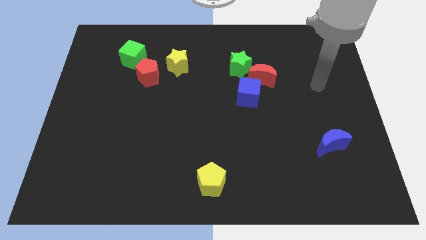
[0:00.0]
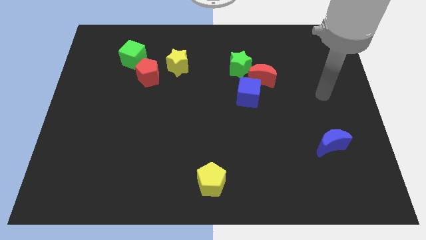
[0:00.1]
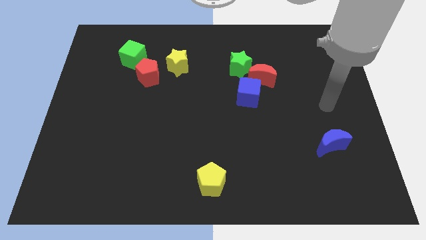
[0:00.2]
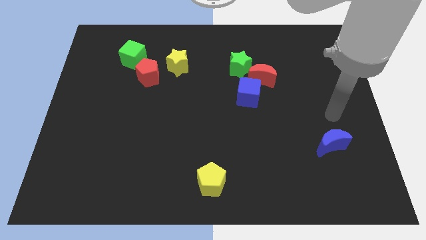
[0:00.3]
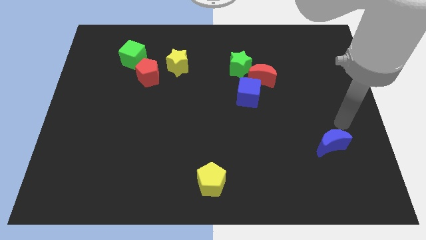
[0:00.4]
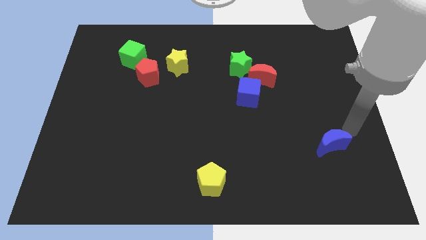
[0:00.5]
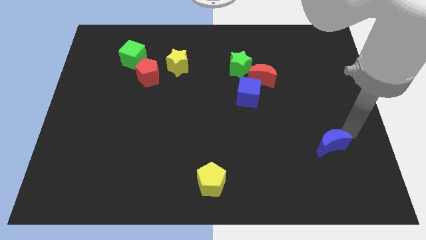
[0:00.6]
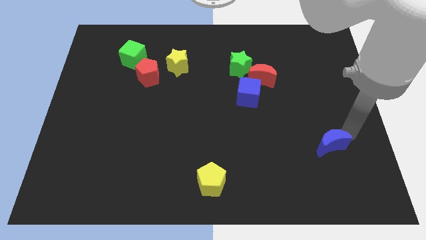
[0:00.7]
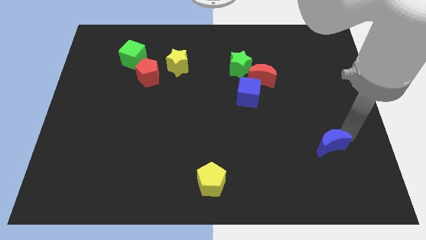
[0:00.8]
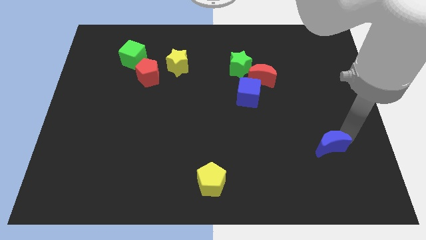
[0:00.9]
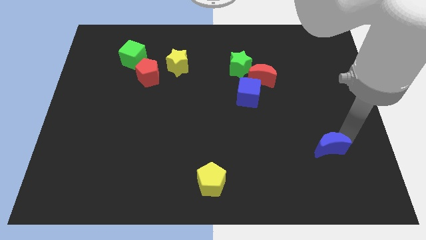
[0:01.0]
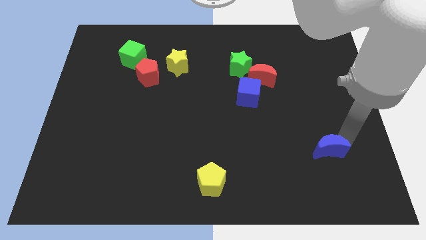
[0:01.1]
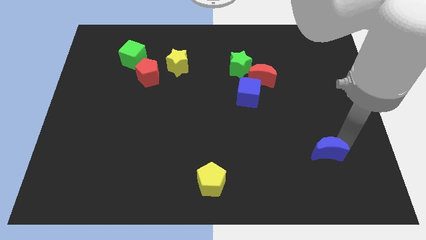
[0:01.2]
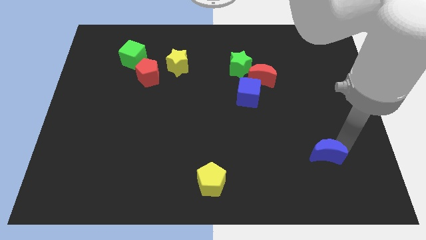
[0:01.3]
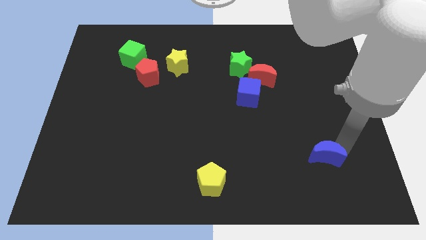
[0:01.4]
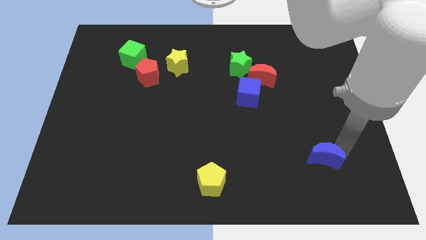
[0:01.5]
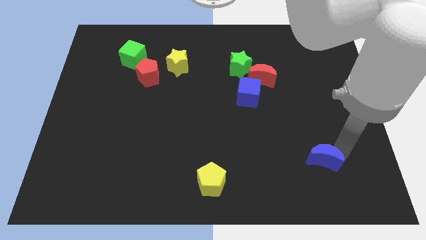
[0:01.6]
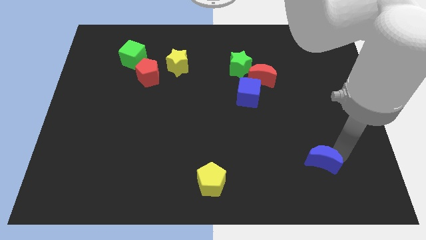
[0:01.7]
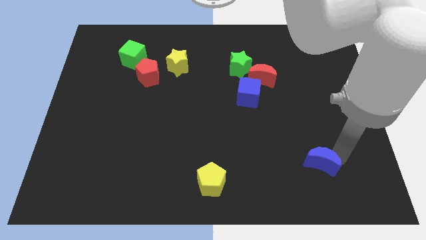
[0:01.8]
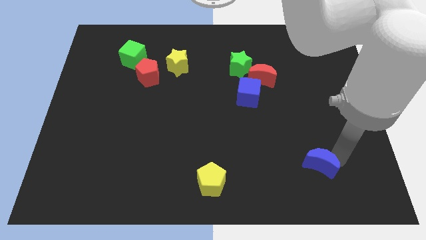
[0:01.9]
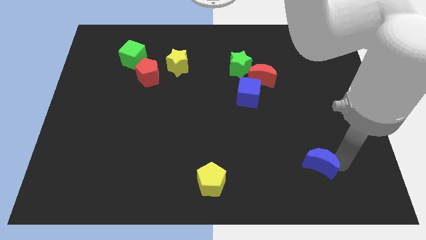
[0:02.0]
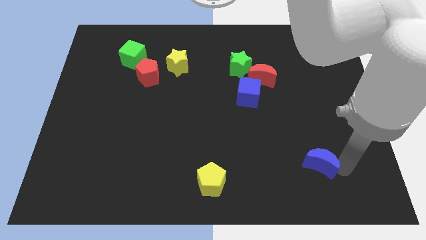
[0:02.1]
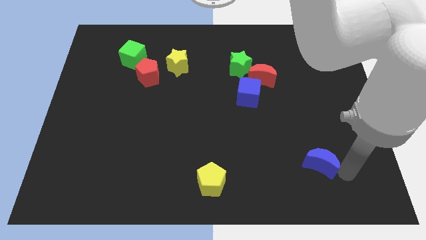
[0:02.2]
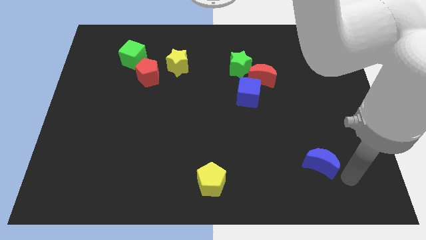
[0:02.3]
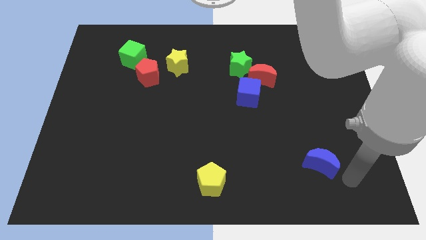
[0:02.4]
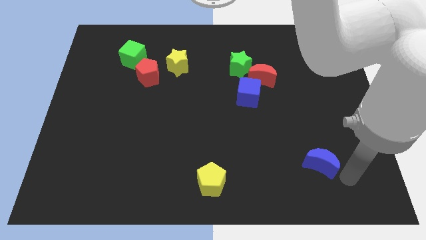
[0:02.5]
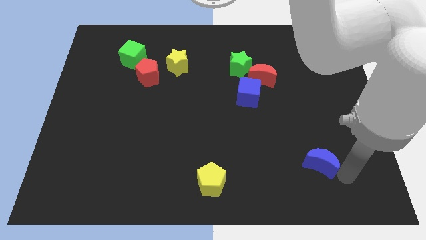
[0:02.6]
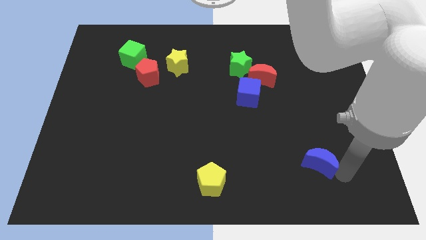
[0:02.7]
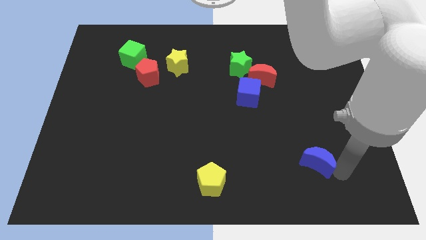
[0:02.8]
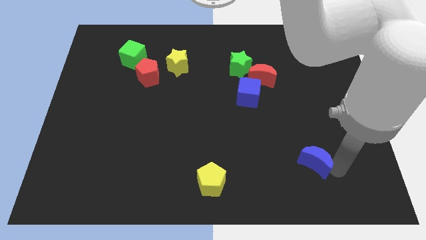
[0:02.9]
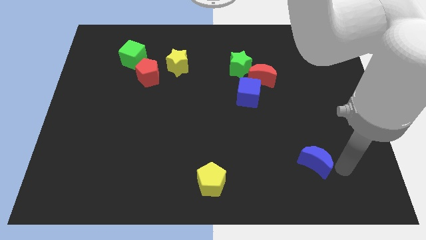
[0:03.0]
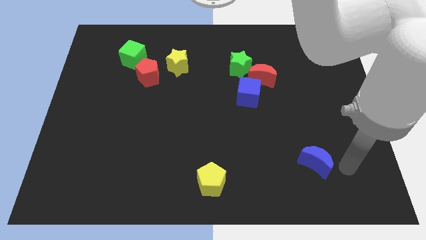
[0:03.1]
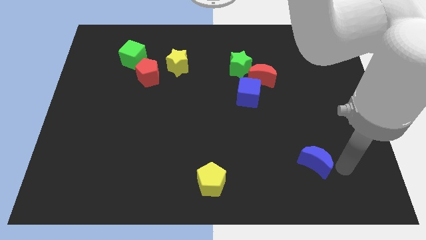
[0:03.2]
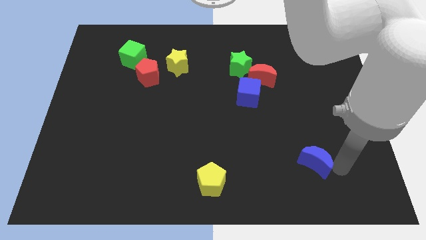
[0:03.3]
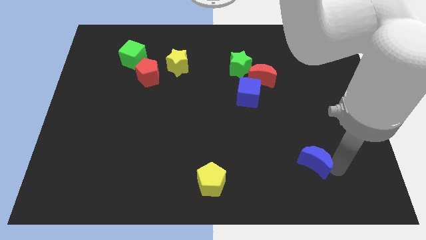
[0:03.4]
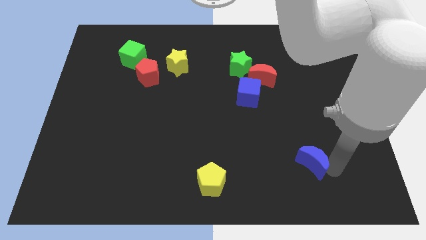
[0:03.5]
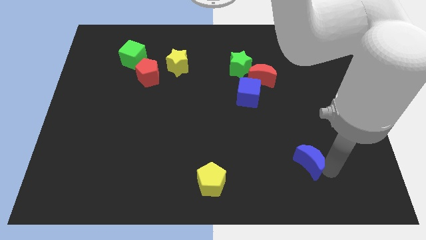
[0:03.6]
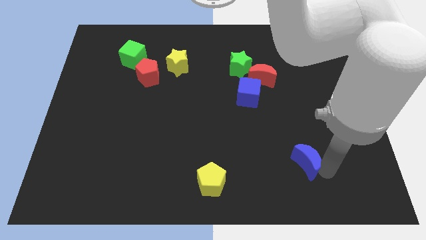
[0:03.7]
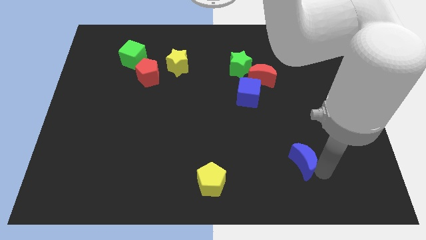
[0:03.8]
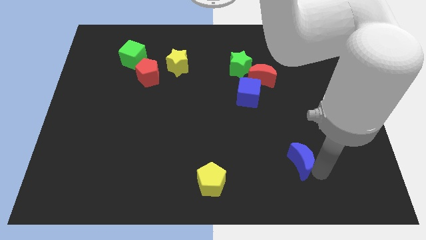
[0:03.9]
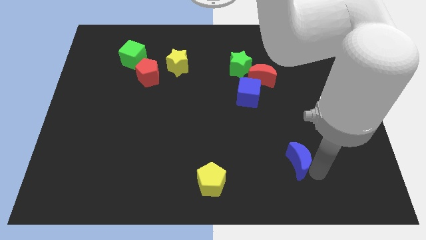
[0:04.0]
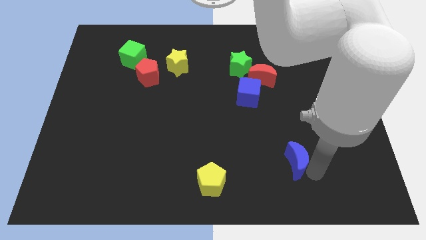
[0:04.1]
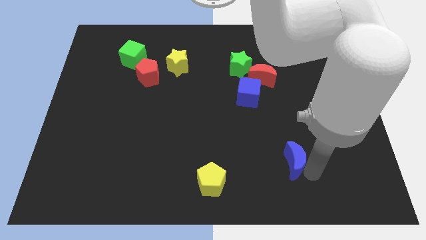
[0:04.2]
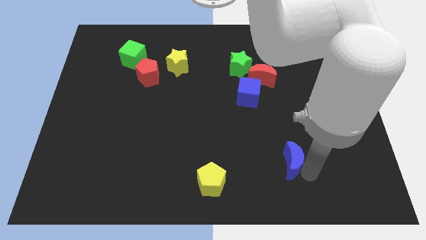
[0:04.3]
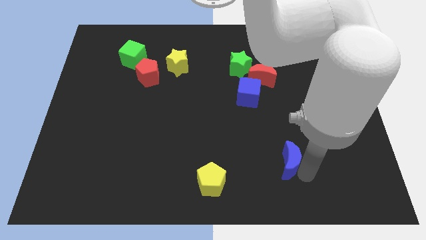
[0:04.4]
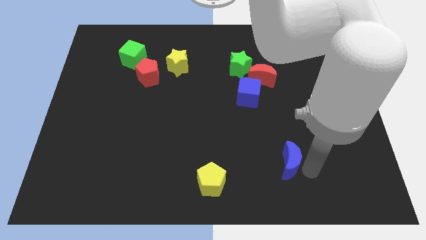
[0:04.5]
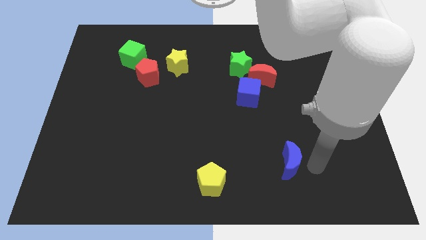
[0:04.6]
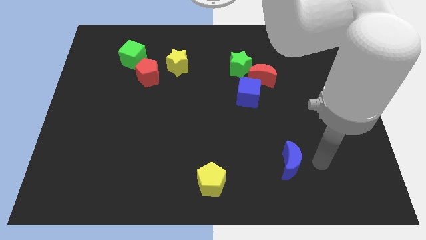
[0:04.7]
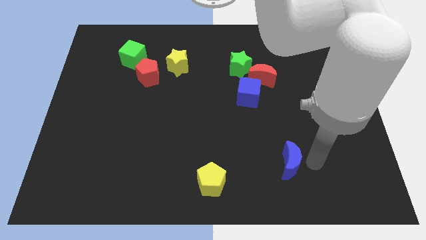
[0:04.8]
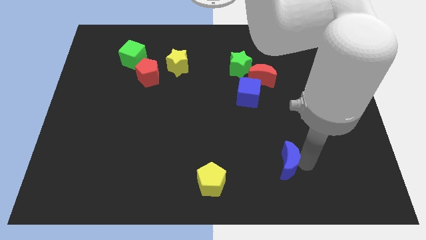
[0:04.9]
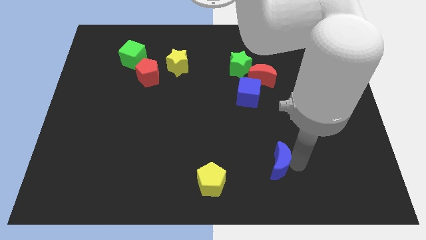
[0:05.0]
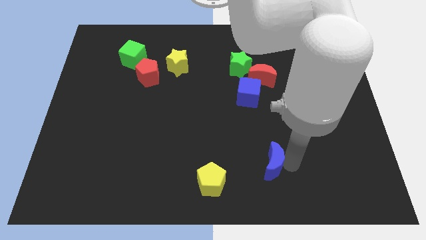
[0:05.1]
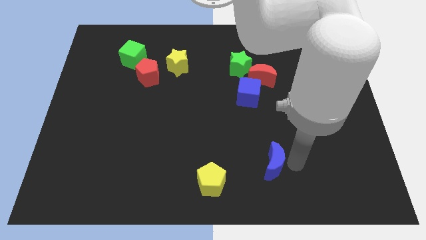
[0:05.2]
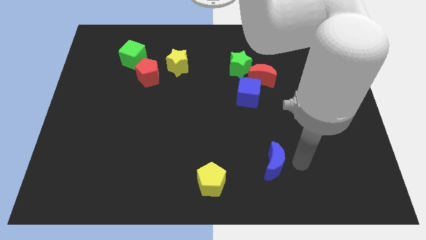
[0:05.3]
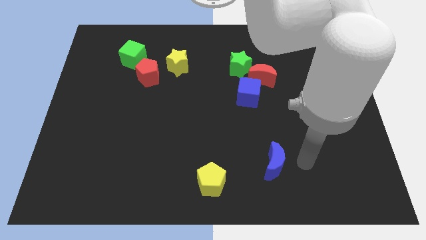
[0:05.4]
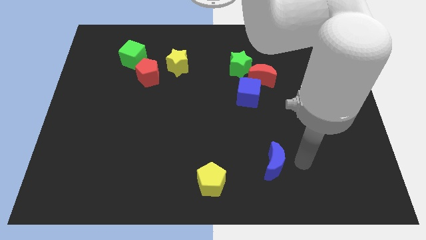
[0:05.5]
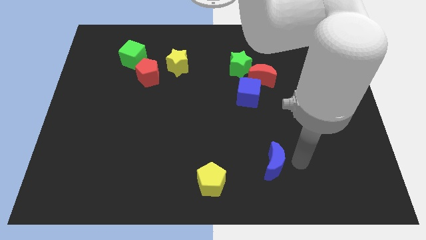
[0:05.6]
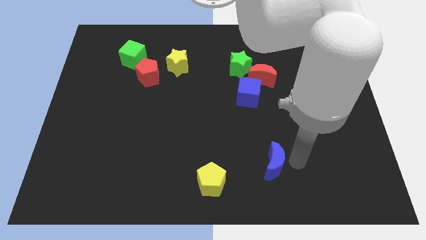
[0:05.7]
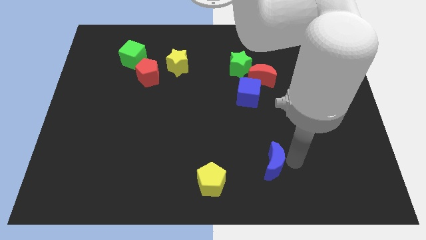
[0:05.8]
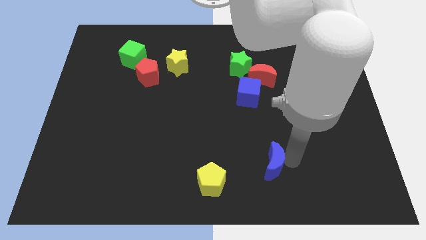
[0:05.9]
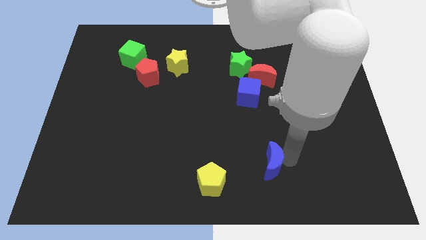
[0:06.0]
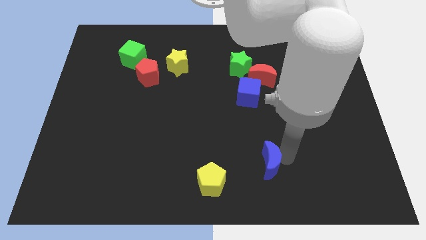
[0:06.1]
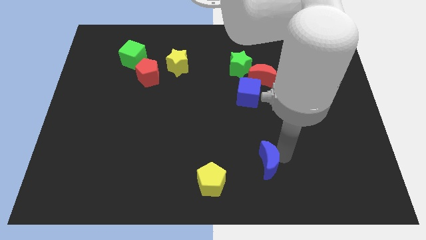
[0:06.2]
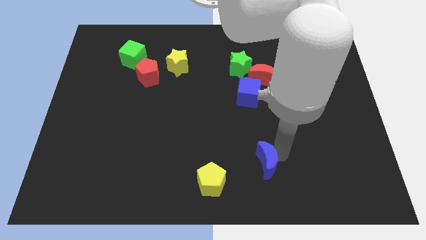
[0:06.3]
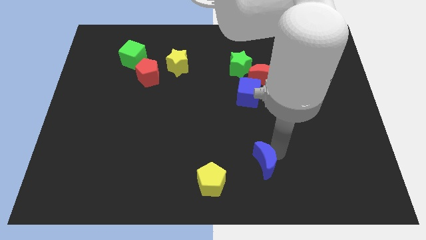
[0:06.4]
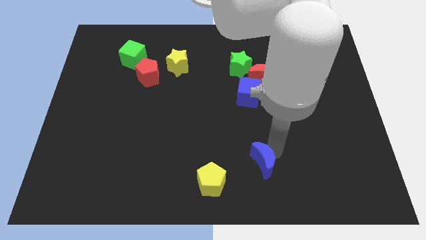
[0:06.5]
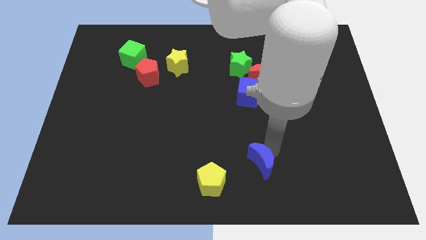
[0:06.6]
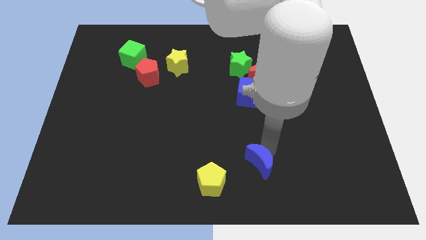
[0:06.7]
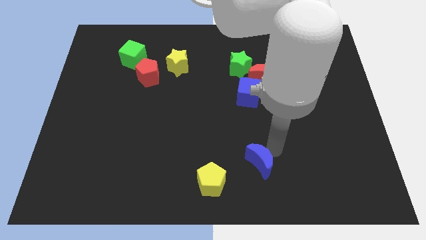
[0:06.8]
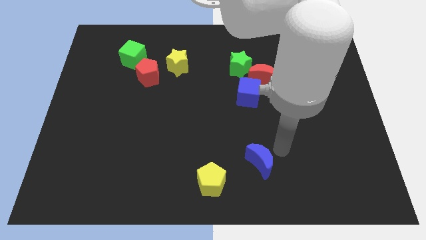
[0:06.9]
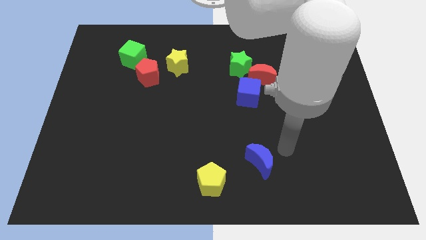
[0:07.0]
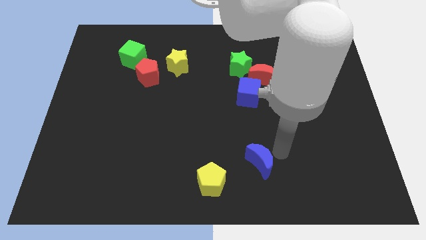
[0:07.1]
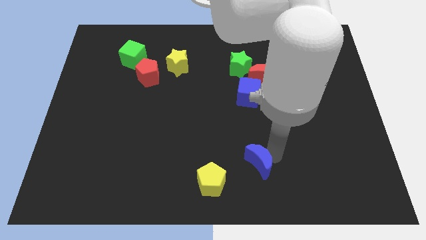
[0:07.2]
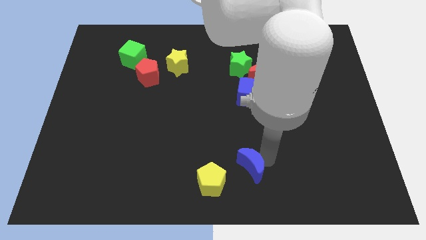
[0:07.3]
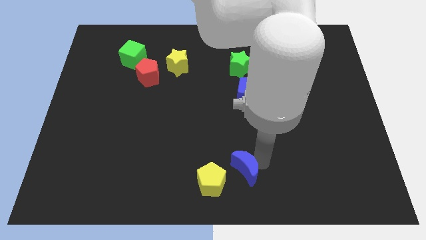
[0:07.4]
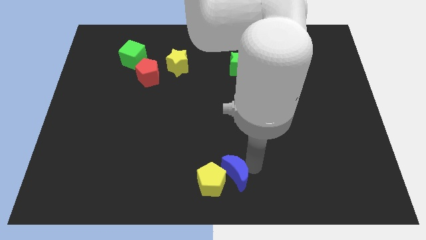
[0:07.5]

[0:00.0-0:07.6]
put the blue moon close to the yellow pentagon

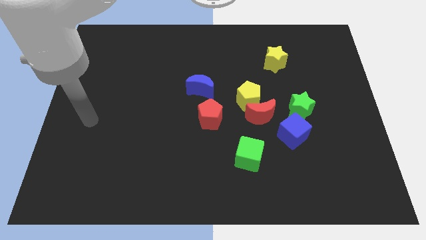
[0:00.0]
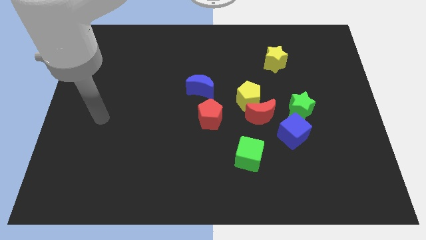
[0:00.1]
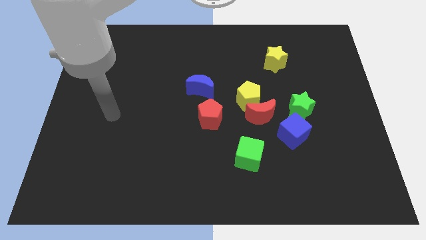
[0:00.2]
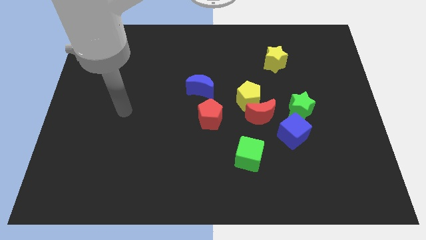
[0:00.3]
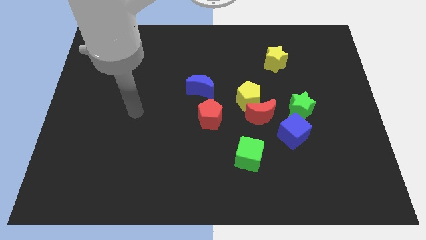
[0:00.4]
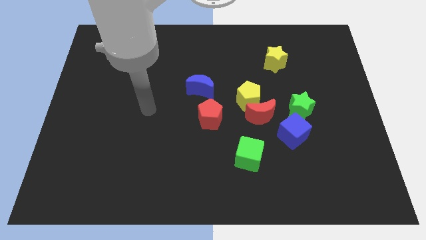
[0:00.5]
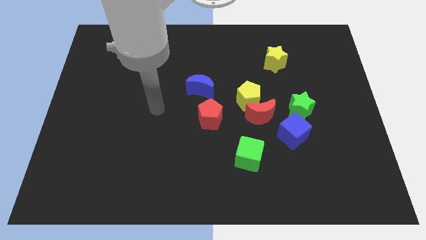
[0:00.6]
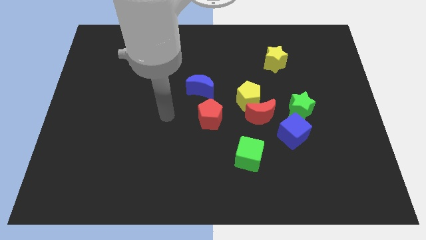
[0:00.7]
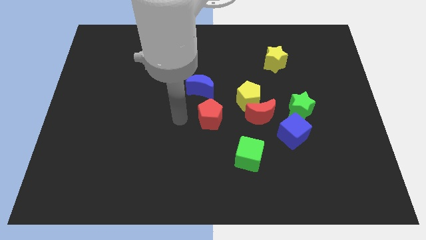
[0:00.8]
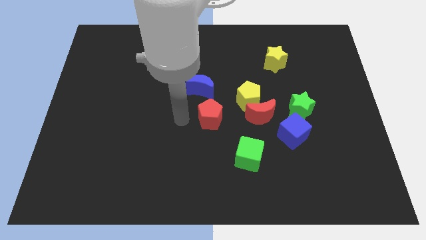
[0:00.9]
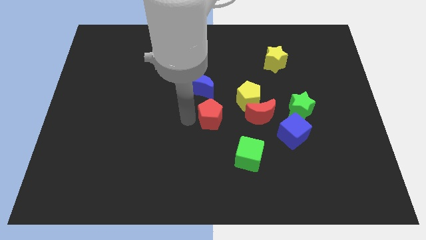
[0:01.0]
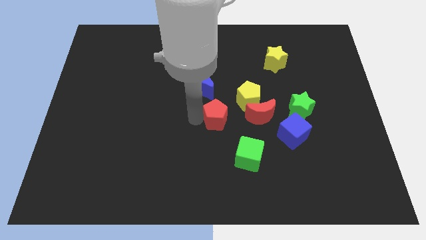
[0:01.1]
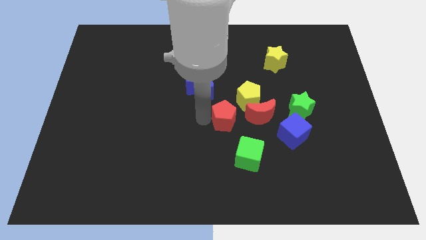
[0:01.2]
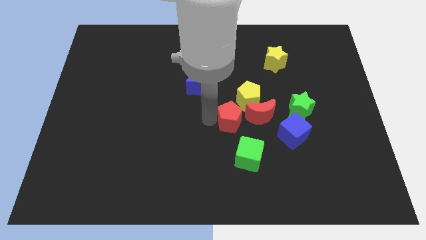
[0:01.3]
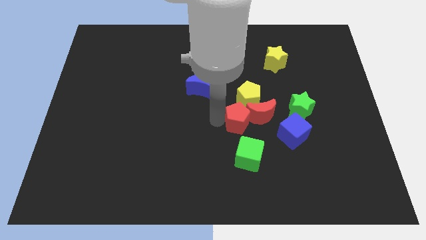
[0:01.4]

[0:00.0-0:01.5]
push the red pentagon to the red moon
